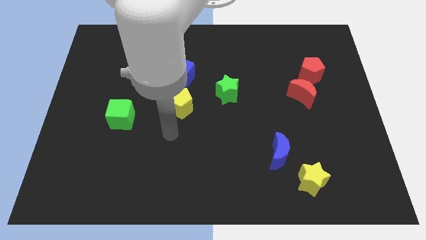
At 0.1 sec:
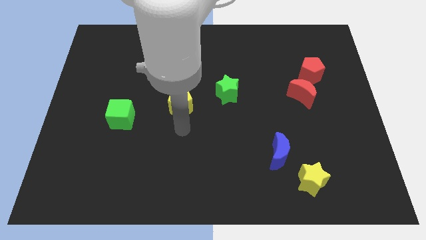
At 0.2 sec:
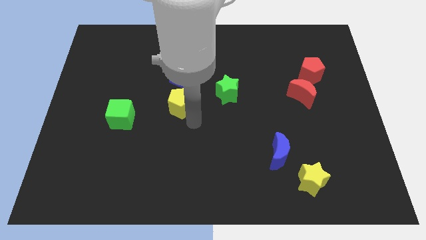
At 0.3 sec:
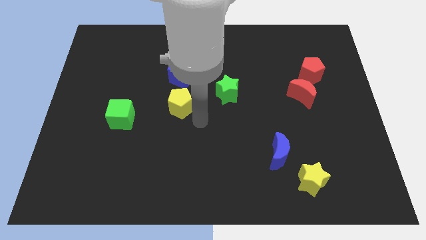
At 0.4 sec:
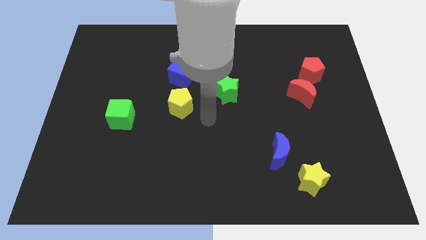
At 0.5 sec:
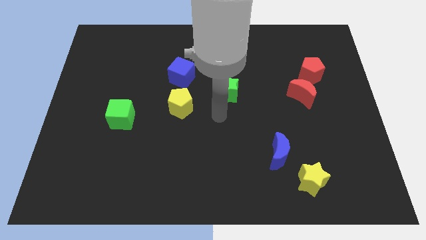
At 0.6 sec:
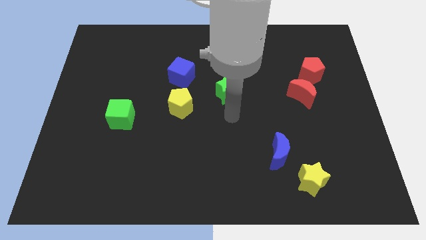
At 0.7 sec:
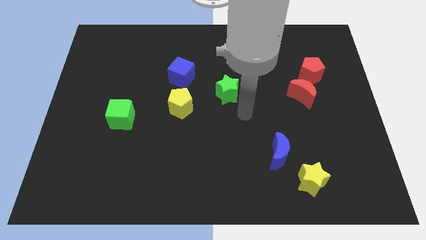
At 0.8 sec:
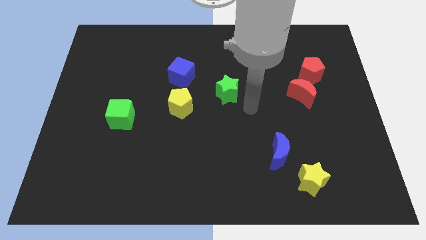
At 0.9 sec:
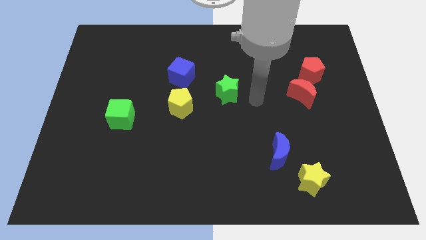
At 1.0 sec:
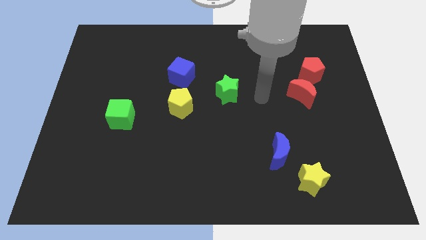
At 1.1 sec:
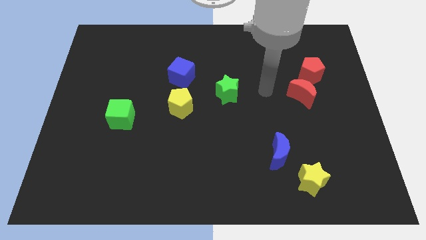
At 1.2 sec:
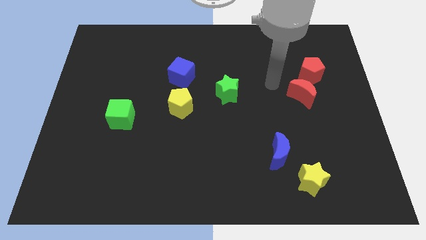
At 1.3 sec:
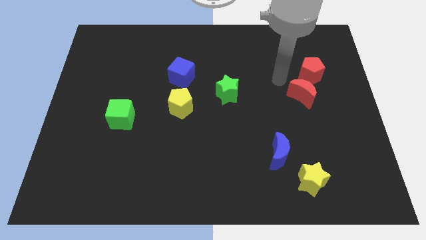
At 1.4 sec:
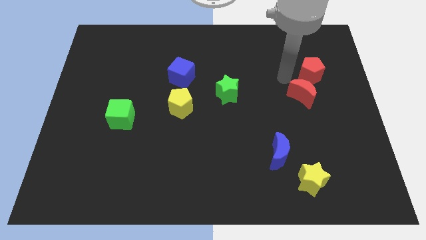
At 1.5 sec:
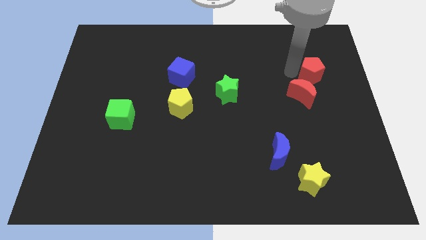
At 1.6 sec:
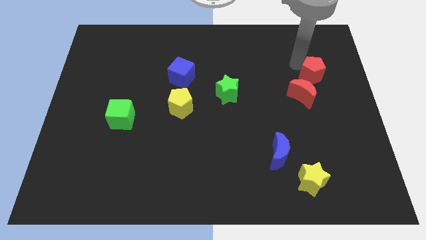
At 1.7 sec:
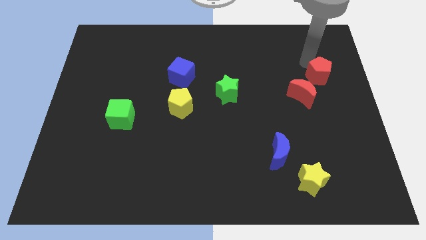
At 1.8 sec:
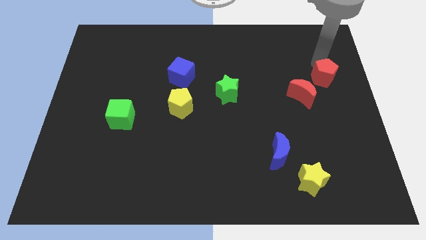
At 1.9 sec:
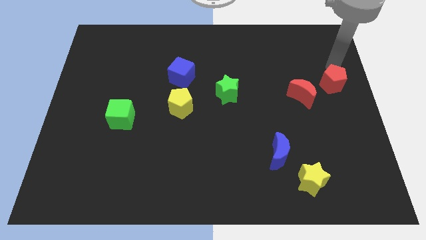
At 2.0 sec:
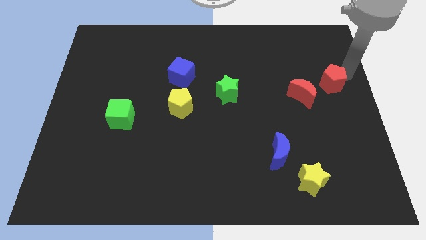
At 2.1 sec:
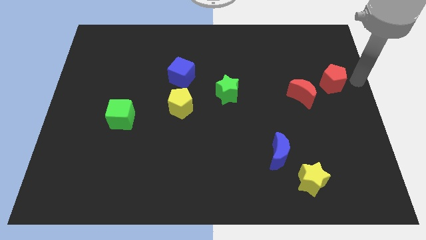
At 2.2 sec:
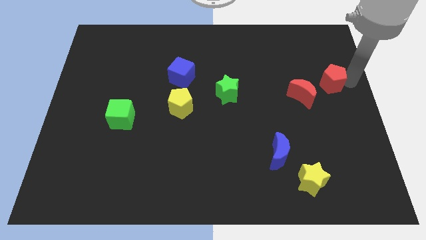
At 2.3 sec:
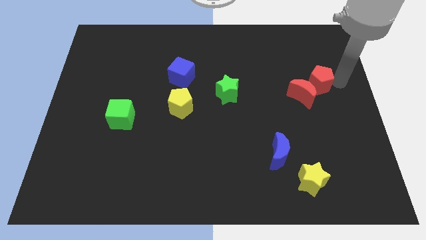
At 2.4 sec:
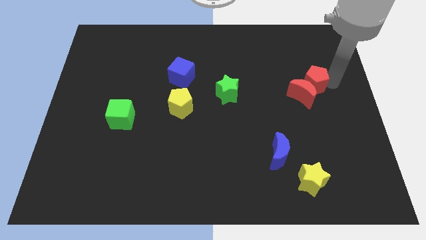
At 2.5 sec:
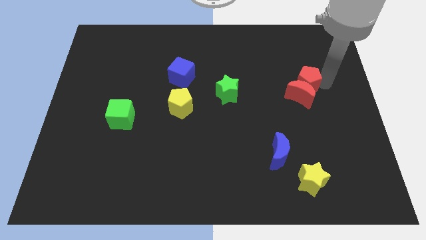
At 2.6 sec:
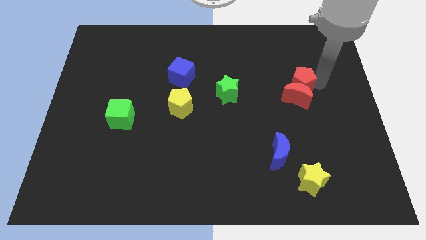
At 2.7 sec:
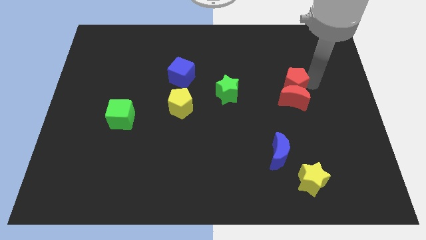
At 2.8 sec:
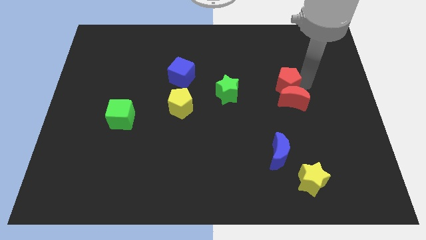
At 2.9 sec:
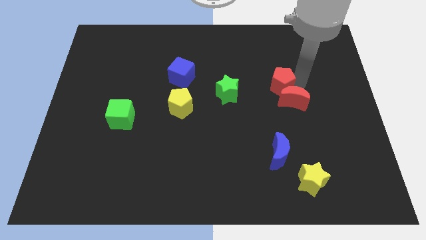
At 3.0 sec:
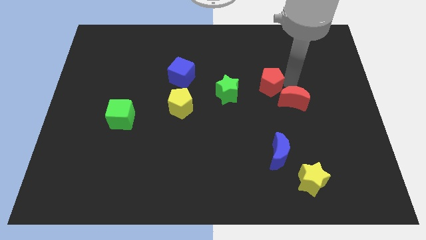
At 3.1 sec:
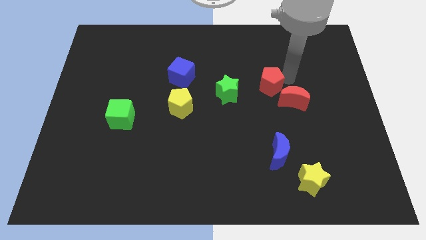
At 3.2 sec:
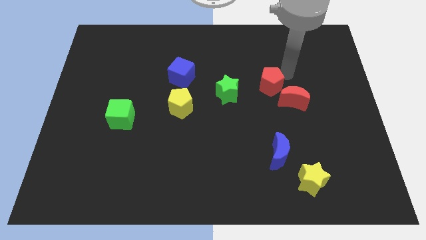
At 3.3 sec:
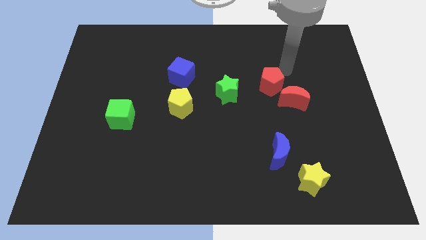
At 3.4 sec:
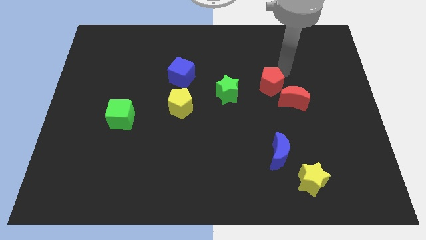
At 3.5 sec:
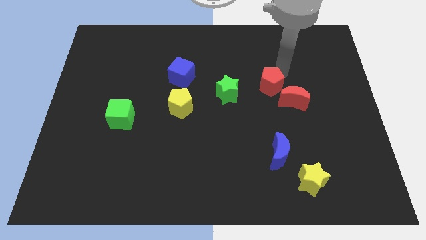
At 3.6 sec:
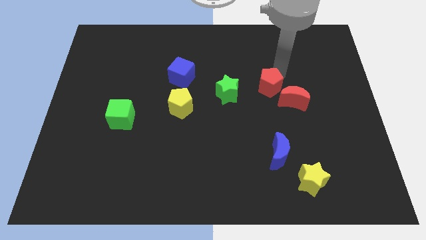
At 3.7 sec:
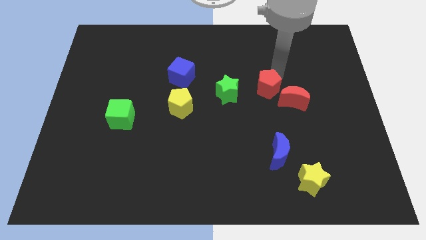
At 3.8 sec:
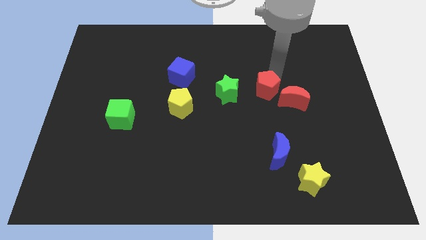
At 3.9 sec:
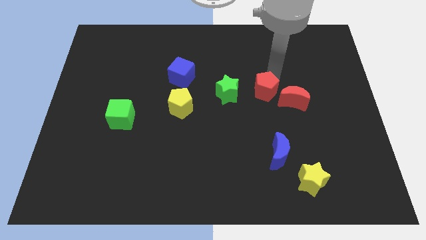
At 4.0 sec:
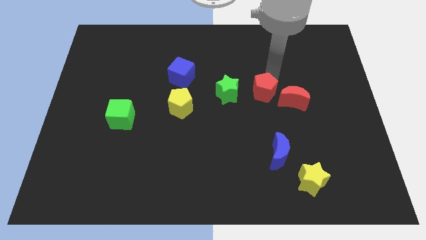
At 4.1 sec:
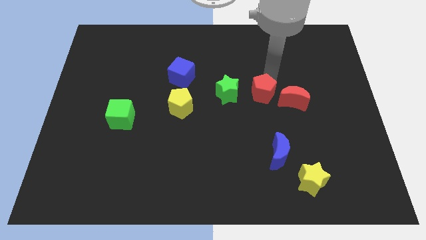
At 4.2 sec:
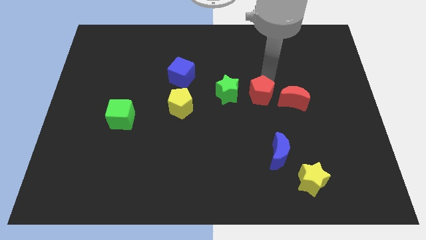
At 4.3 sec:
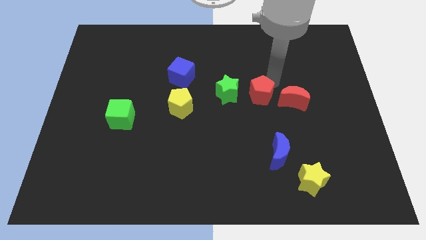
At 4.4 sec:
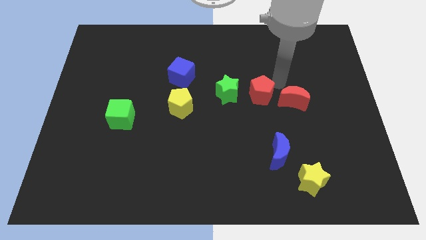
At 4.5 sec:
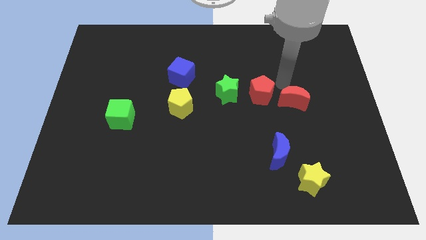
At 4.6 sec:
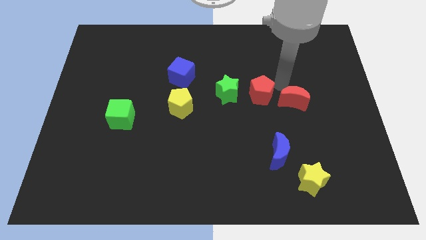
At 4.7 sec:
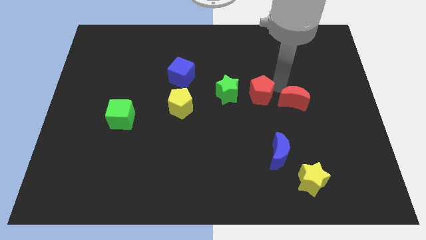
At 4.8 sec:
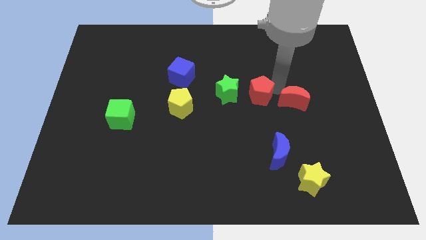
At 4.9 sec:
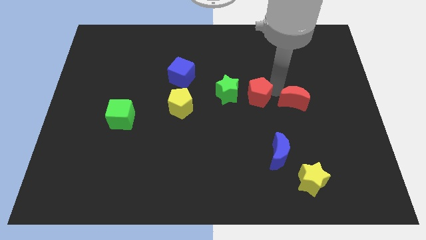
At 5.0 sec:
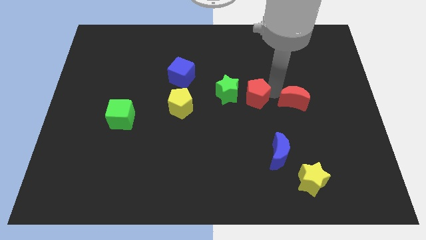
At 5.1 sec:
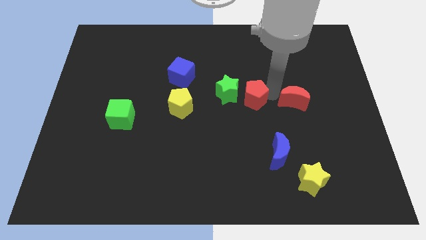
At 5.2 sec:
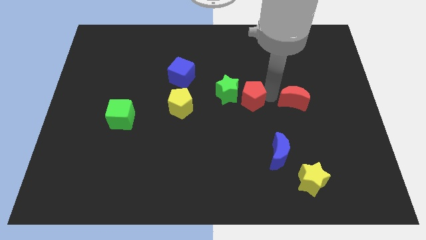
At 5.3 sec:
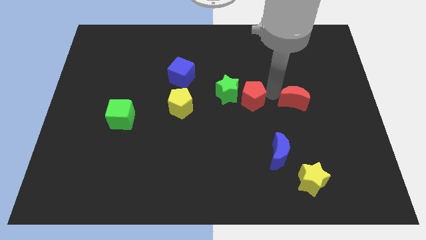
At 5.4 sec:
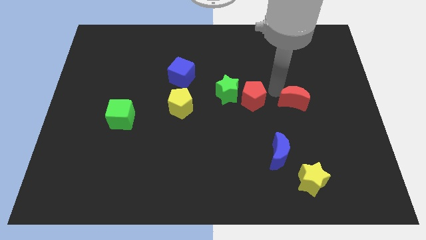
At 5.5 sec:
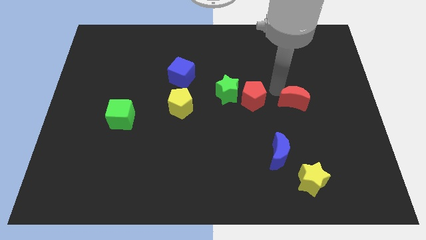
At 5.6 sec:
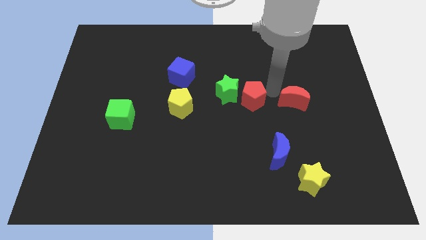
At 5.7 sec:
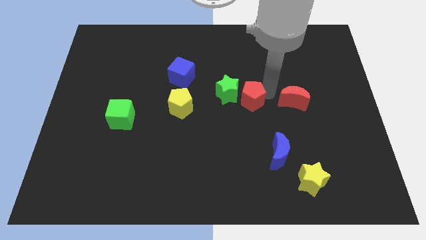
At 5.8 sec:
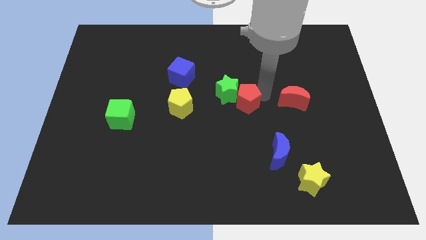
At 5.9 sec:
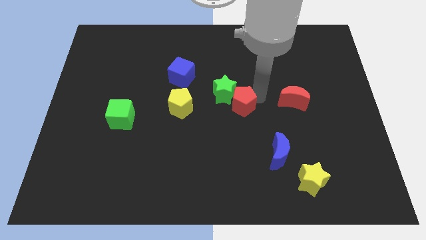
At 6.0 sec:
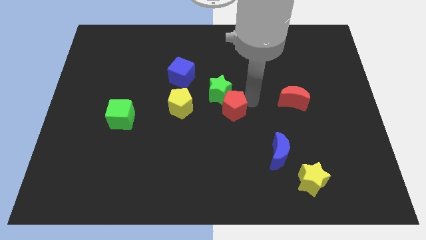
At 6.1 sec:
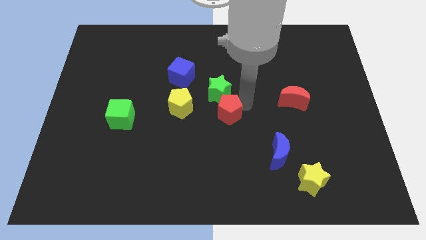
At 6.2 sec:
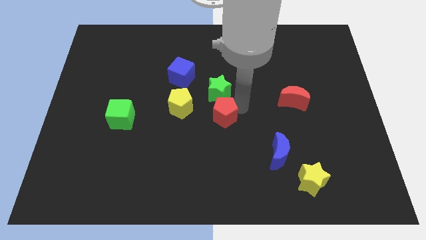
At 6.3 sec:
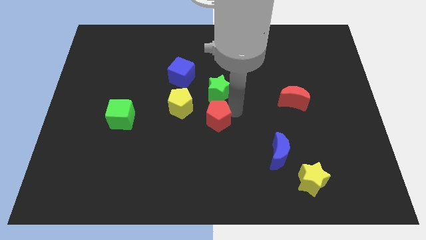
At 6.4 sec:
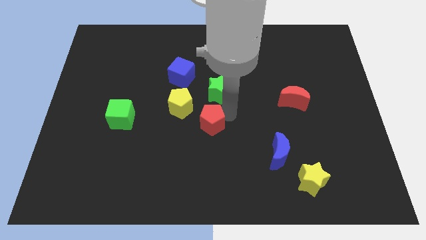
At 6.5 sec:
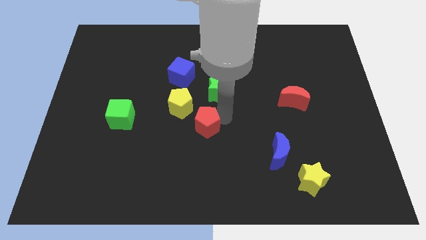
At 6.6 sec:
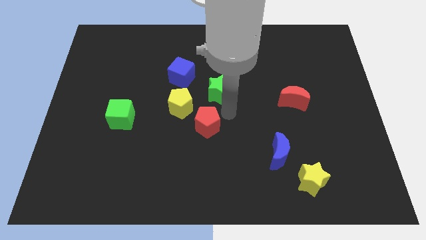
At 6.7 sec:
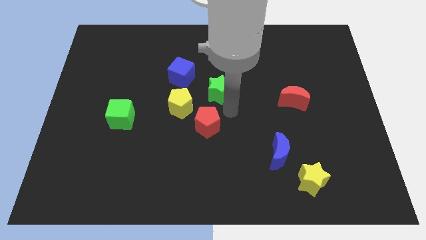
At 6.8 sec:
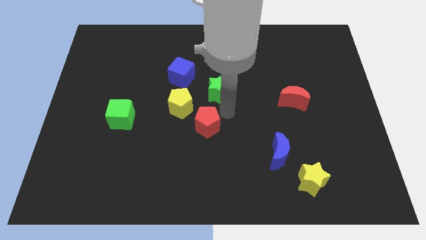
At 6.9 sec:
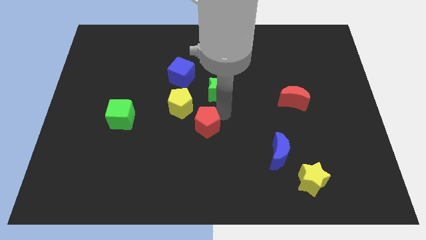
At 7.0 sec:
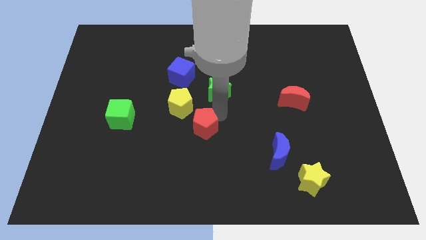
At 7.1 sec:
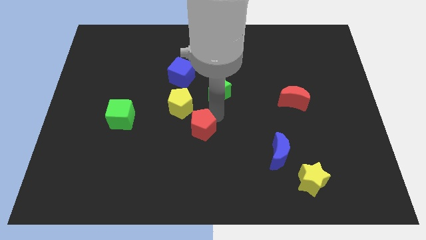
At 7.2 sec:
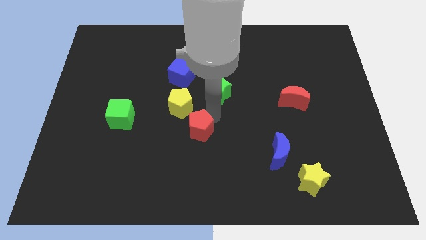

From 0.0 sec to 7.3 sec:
move the red pentagon below the yellow pentagon
